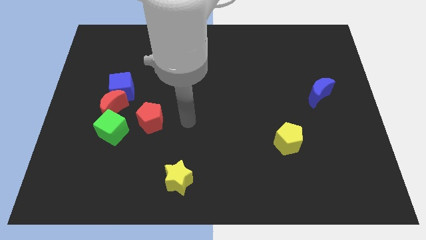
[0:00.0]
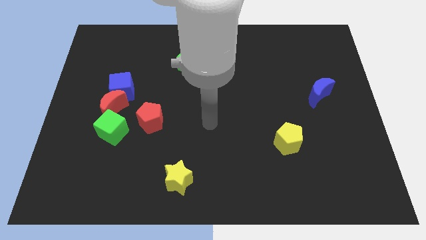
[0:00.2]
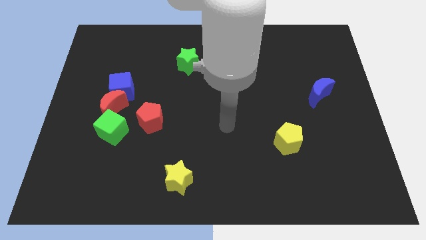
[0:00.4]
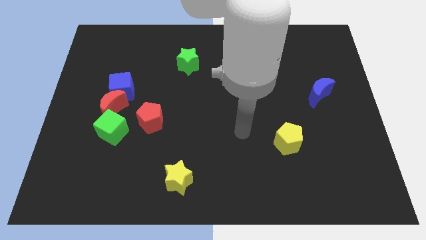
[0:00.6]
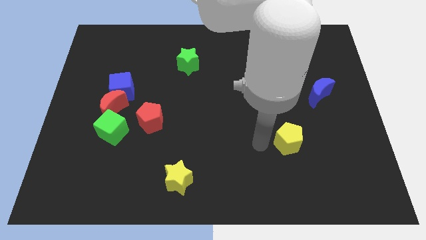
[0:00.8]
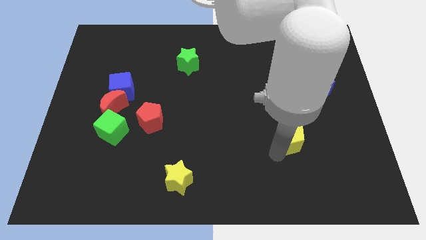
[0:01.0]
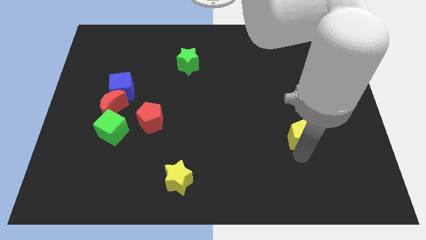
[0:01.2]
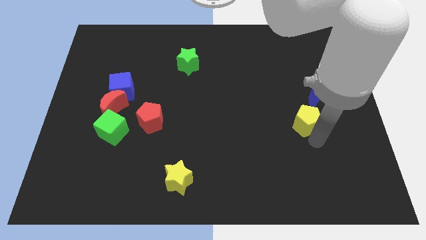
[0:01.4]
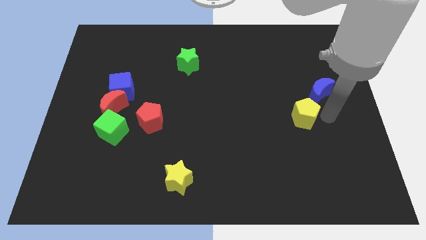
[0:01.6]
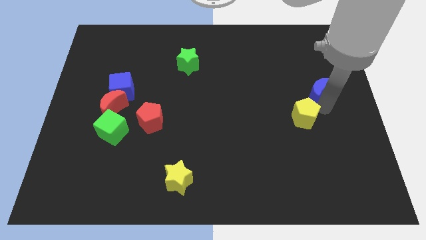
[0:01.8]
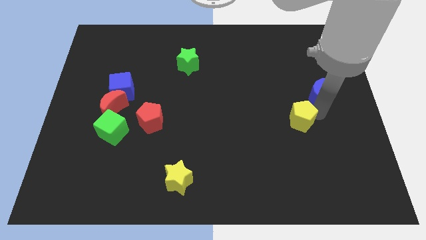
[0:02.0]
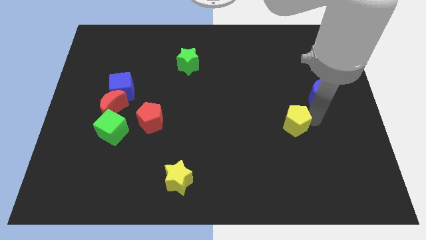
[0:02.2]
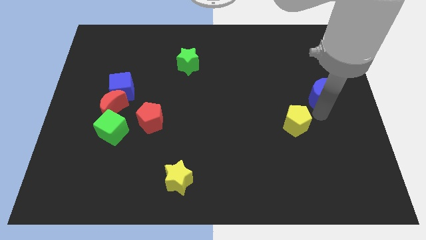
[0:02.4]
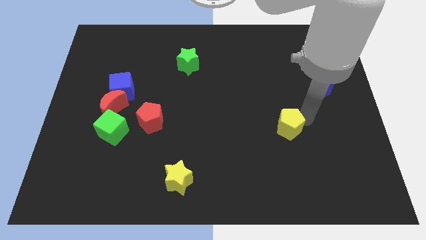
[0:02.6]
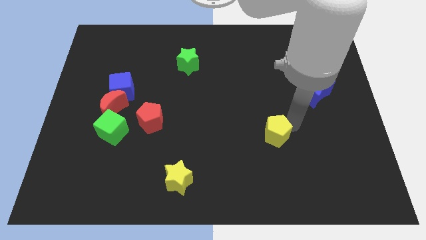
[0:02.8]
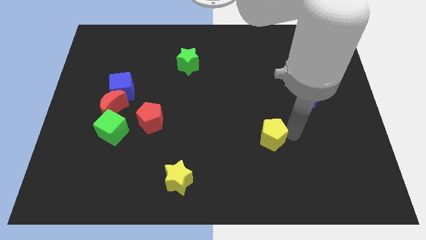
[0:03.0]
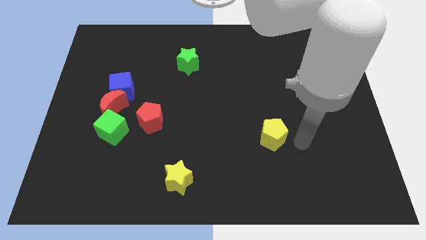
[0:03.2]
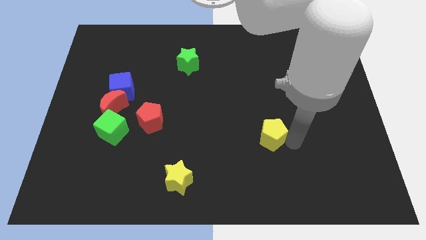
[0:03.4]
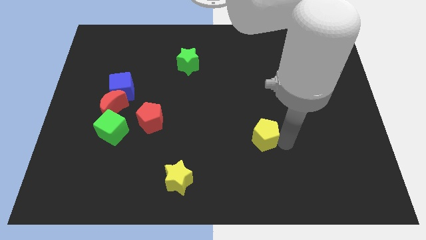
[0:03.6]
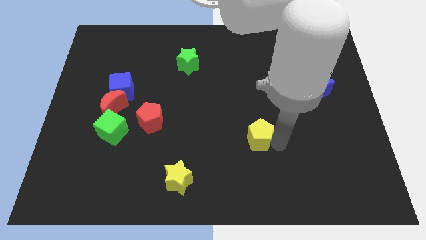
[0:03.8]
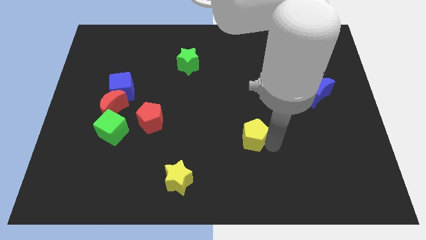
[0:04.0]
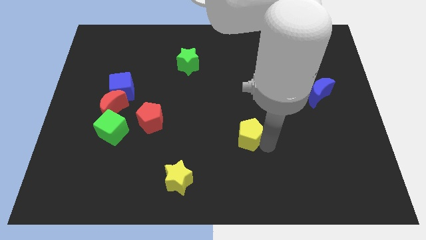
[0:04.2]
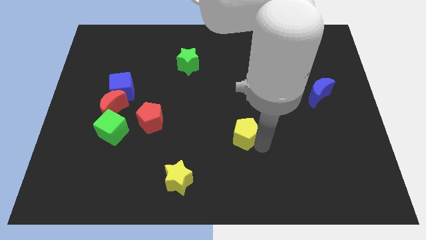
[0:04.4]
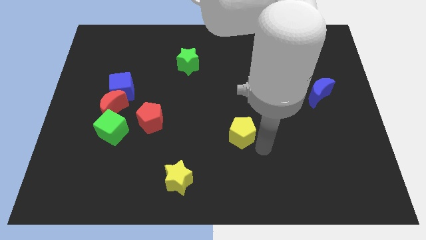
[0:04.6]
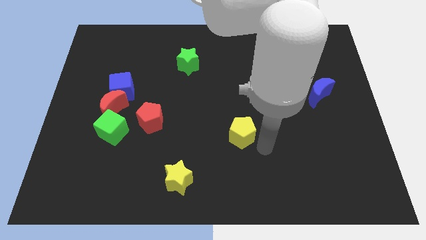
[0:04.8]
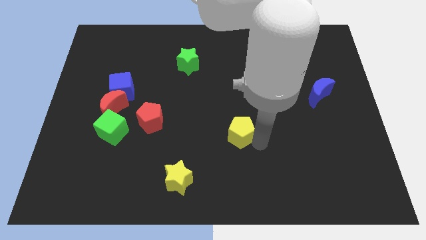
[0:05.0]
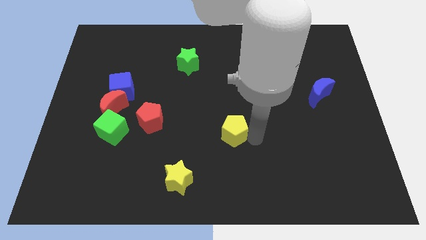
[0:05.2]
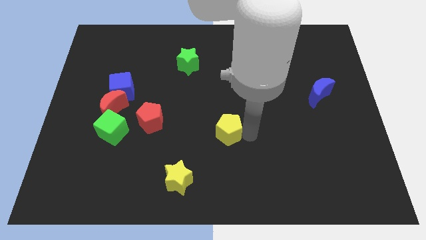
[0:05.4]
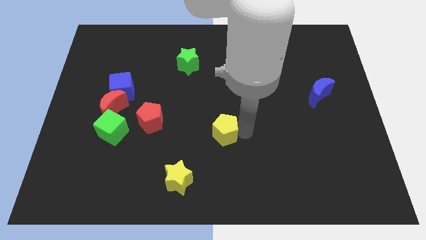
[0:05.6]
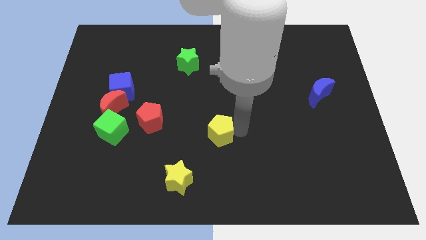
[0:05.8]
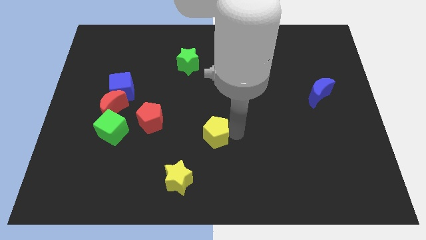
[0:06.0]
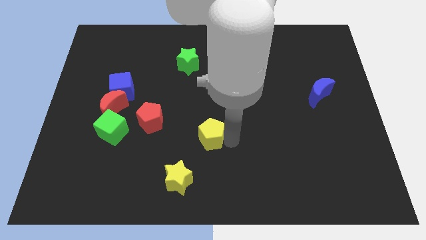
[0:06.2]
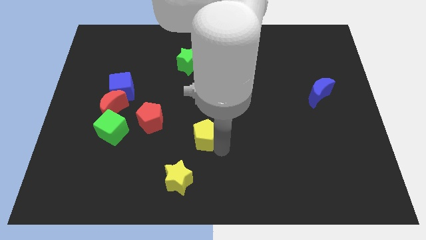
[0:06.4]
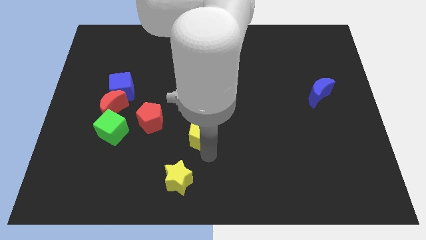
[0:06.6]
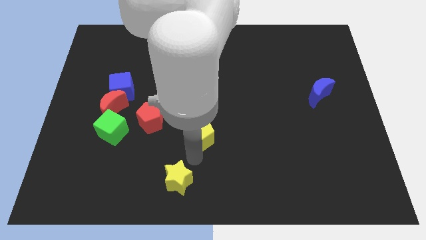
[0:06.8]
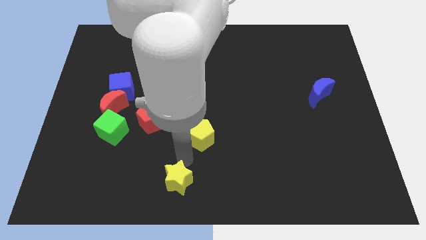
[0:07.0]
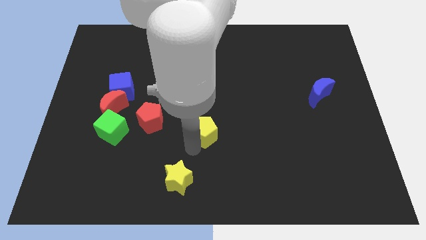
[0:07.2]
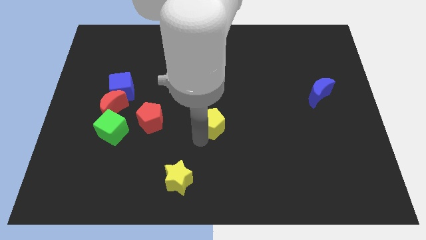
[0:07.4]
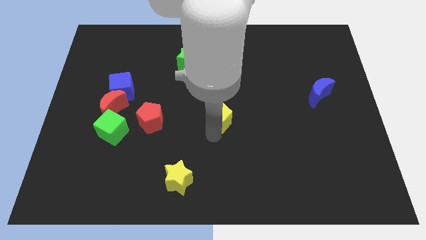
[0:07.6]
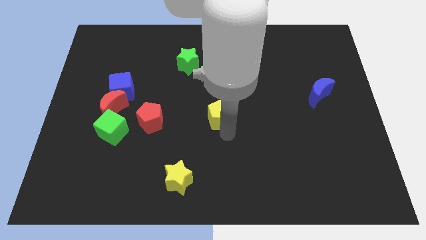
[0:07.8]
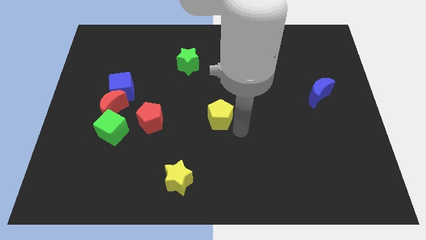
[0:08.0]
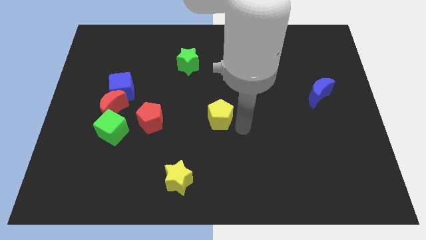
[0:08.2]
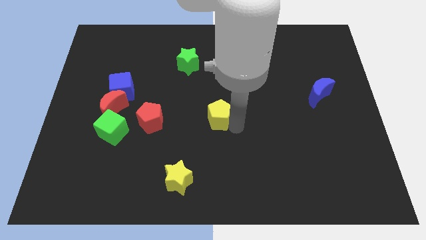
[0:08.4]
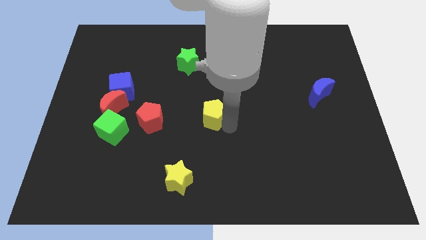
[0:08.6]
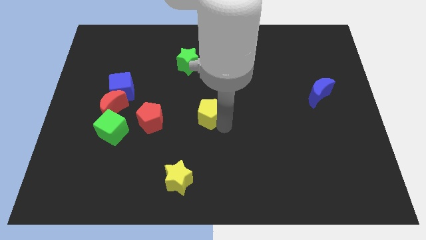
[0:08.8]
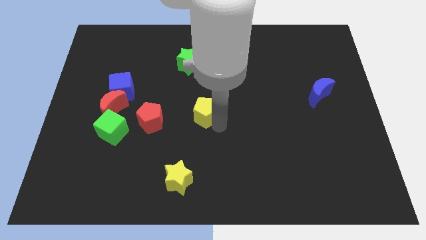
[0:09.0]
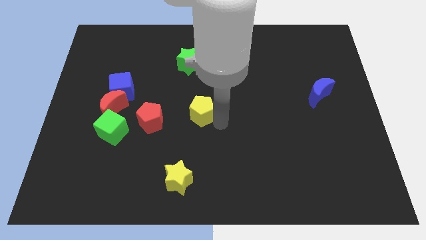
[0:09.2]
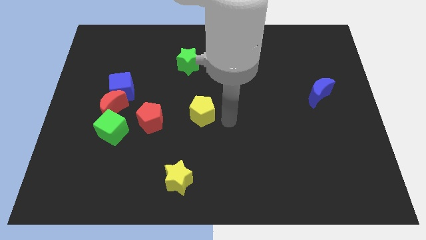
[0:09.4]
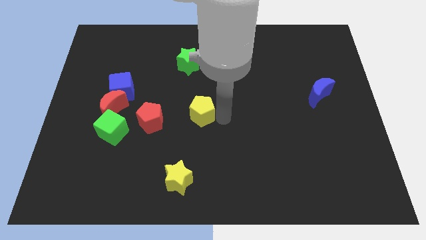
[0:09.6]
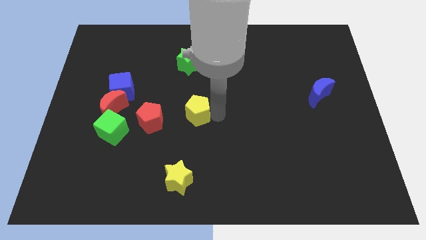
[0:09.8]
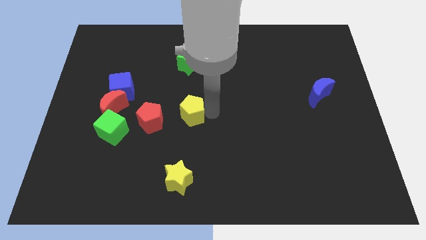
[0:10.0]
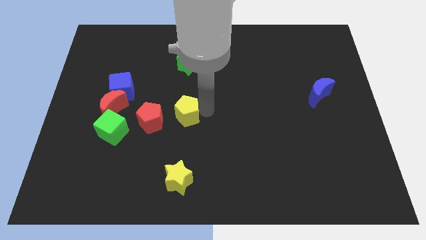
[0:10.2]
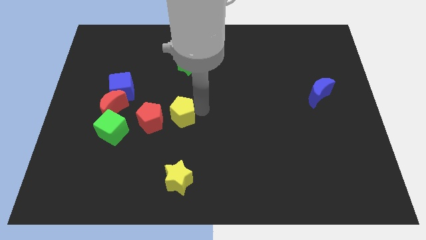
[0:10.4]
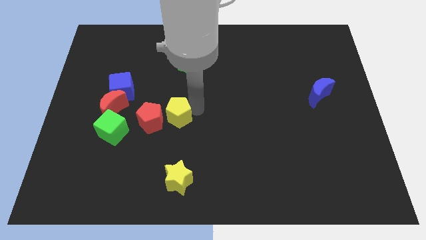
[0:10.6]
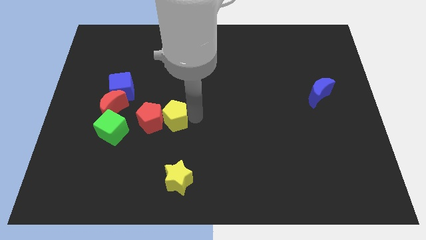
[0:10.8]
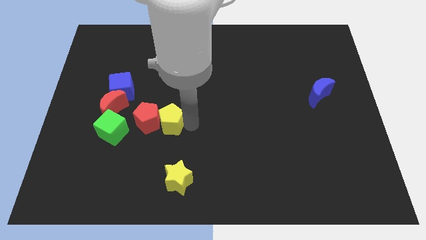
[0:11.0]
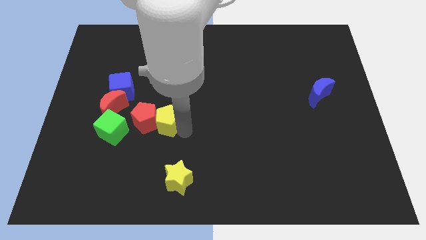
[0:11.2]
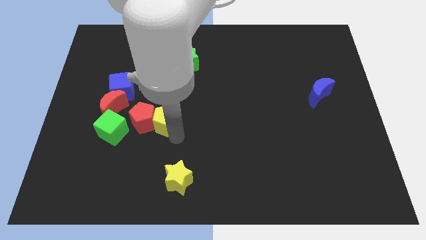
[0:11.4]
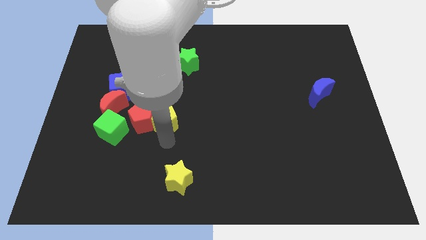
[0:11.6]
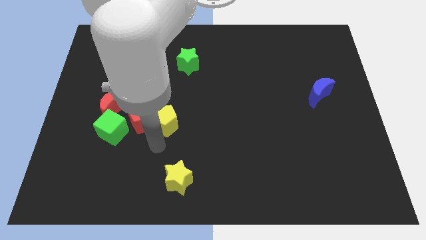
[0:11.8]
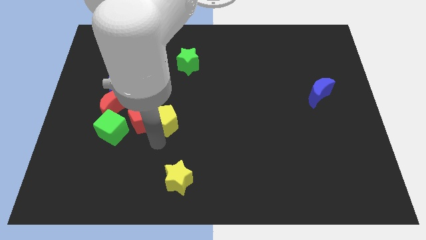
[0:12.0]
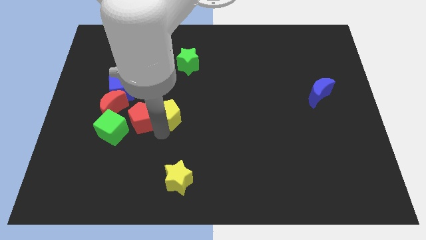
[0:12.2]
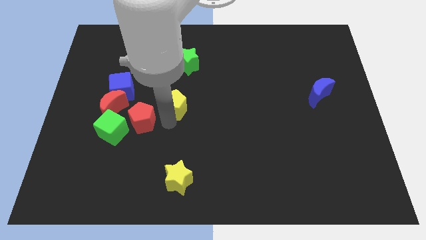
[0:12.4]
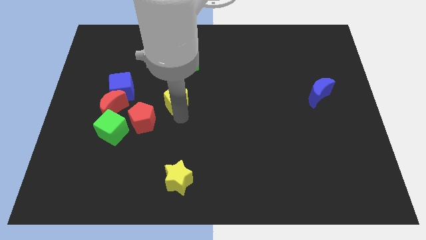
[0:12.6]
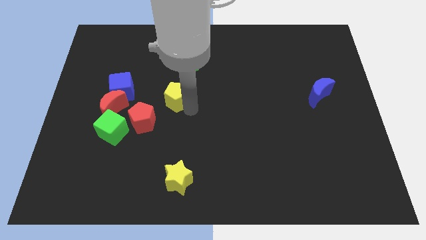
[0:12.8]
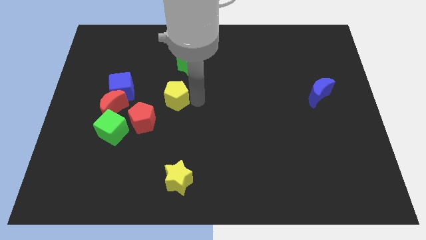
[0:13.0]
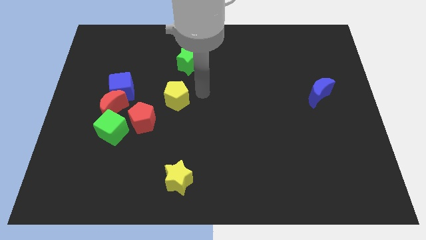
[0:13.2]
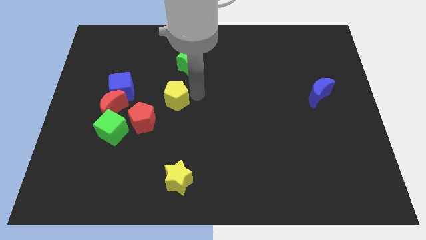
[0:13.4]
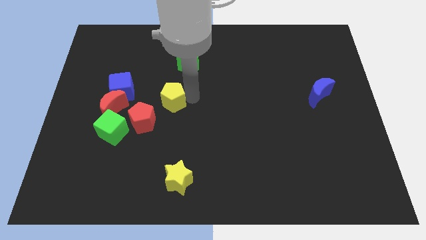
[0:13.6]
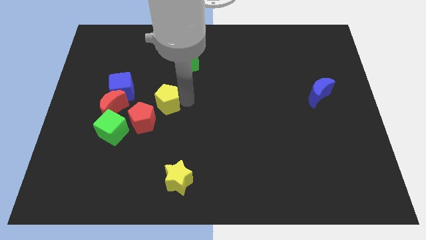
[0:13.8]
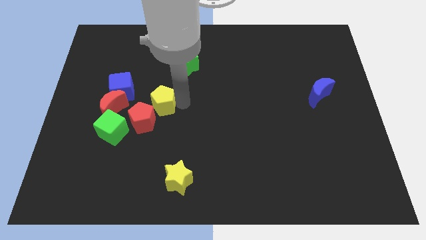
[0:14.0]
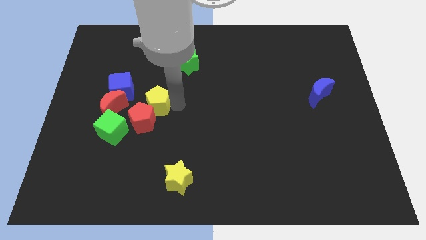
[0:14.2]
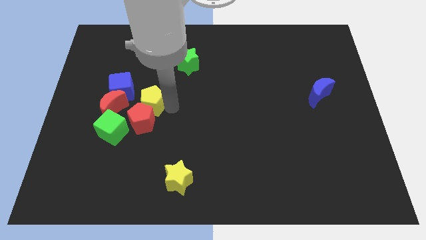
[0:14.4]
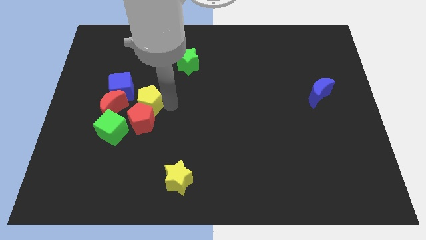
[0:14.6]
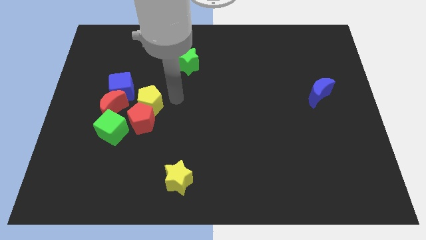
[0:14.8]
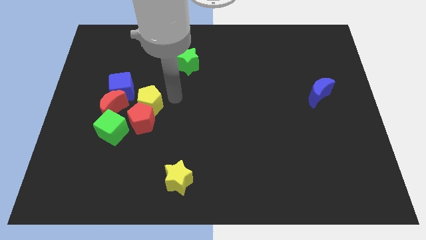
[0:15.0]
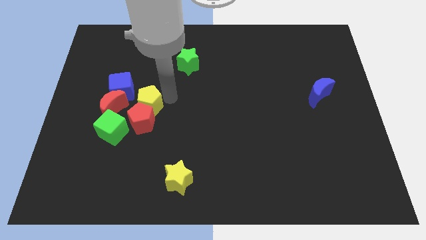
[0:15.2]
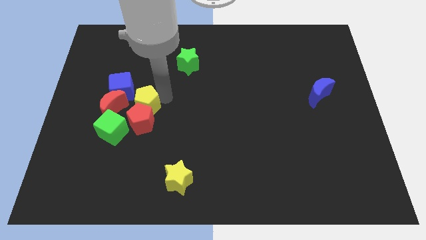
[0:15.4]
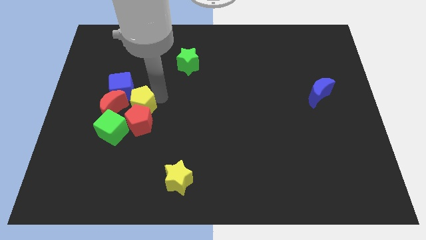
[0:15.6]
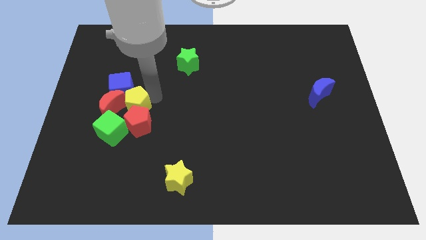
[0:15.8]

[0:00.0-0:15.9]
slide the yellow pentagon next to the red moon
